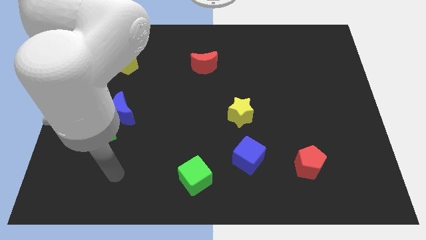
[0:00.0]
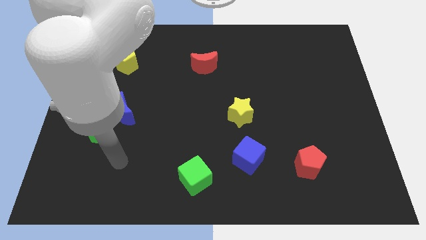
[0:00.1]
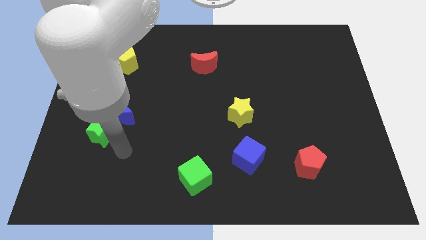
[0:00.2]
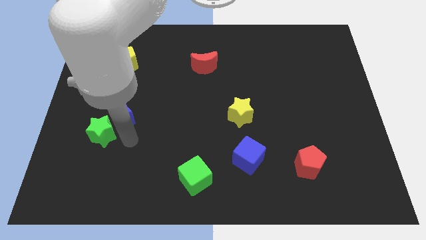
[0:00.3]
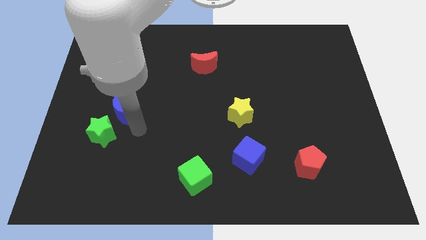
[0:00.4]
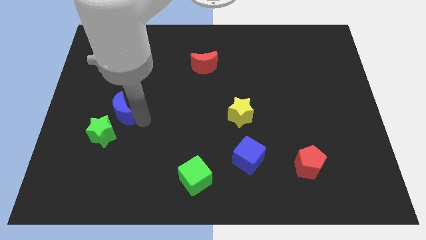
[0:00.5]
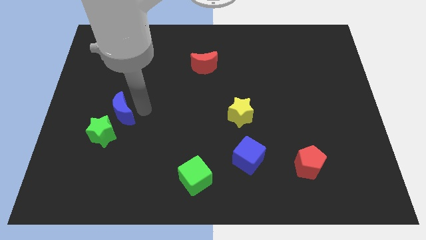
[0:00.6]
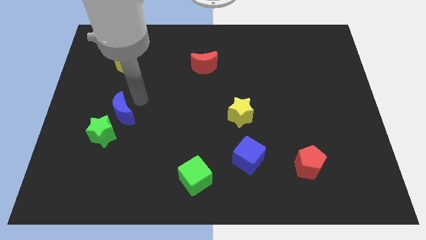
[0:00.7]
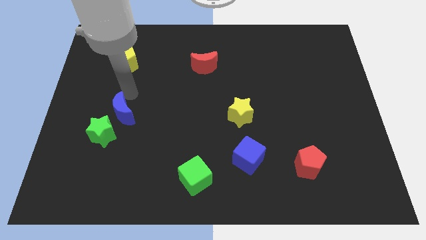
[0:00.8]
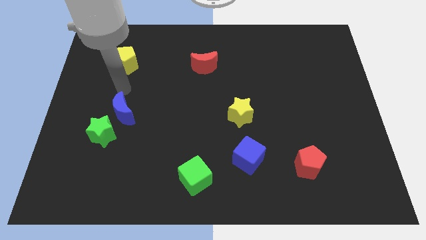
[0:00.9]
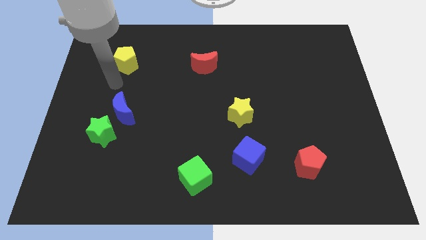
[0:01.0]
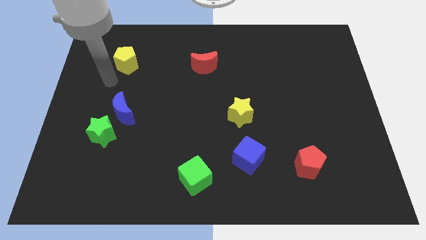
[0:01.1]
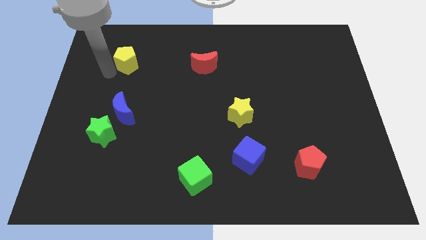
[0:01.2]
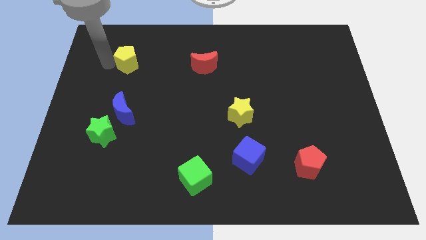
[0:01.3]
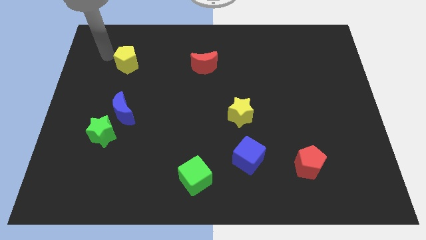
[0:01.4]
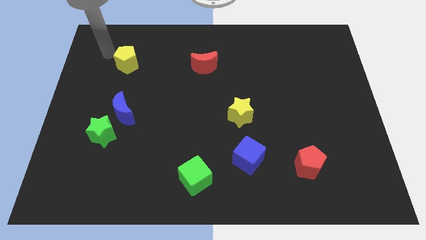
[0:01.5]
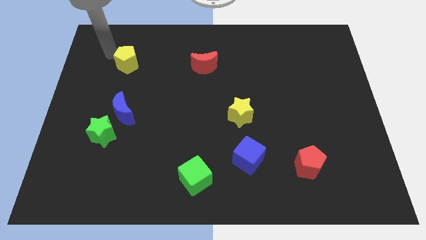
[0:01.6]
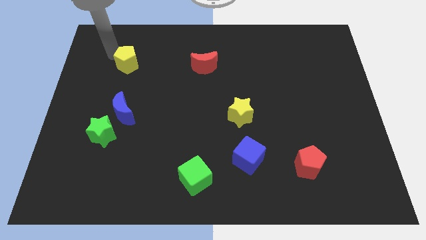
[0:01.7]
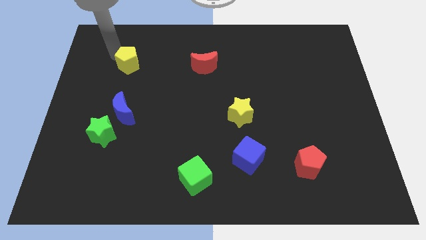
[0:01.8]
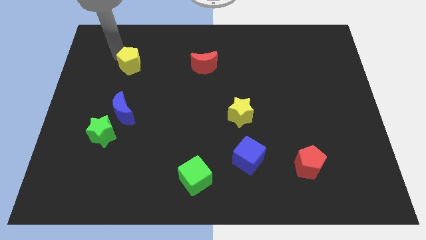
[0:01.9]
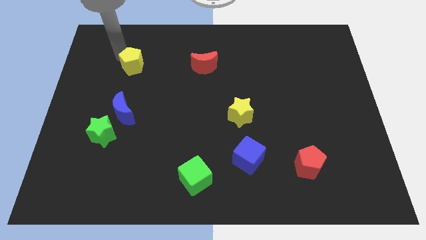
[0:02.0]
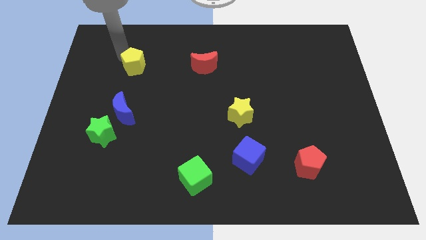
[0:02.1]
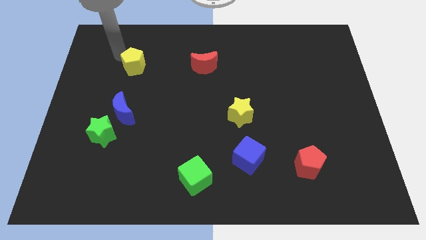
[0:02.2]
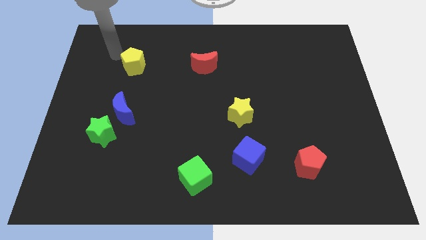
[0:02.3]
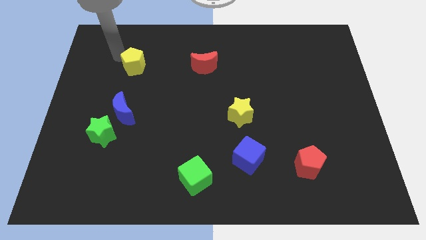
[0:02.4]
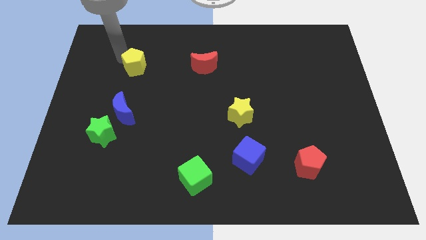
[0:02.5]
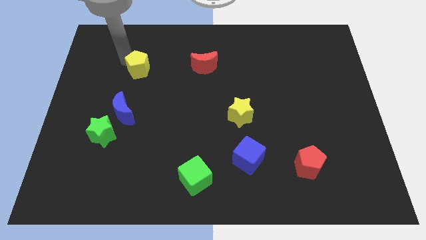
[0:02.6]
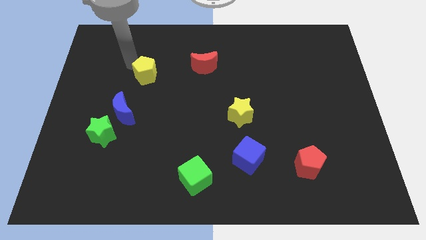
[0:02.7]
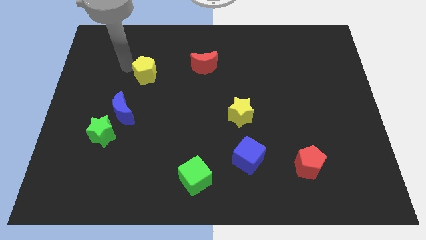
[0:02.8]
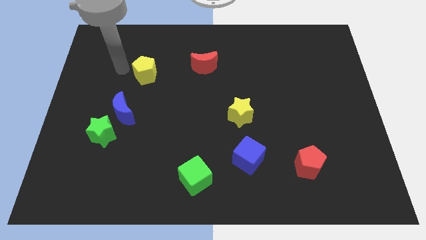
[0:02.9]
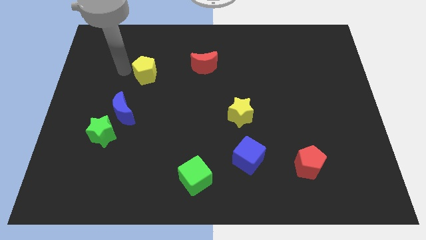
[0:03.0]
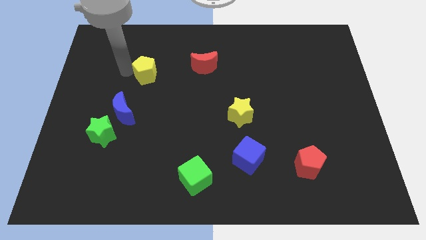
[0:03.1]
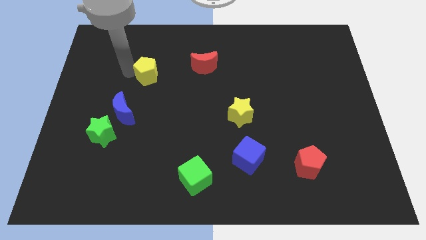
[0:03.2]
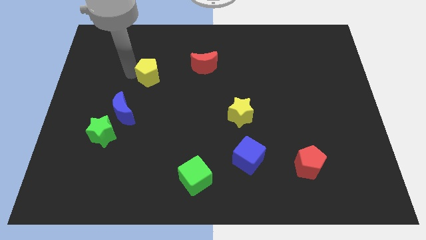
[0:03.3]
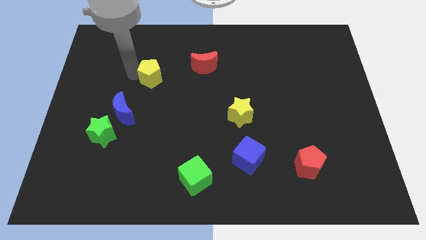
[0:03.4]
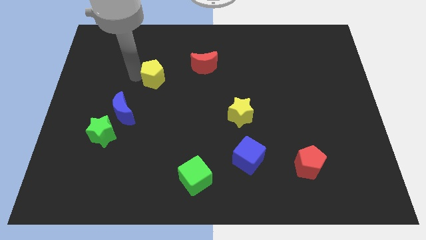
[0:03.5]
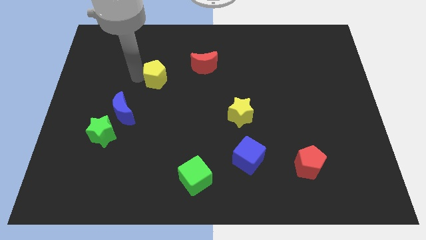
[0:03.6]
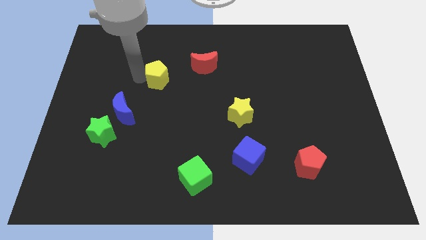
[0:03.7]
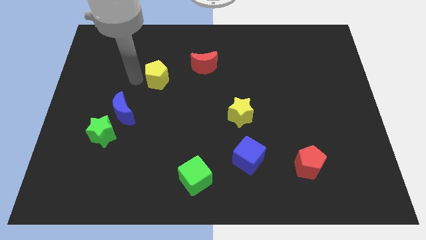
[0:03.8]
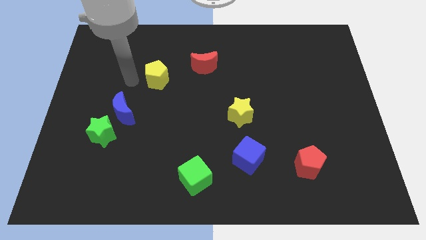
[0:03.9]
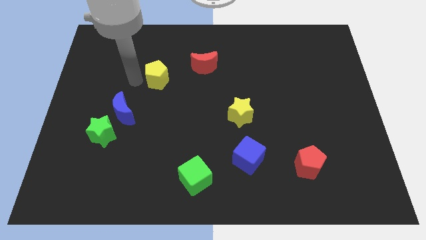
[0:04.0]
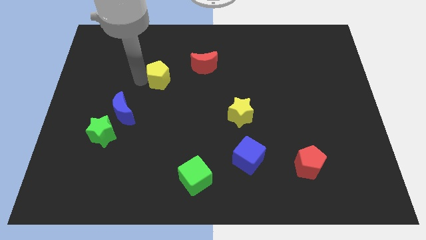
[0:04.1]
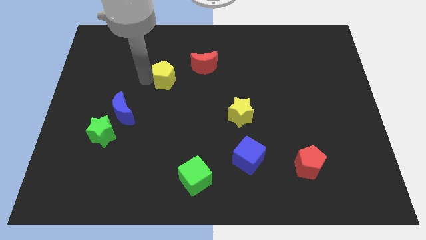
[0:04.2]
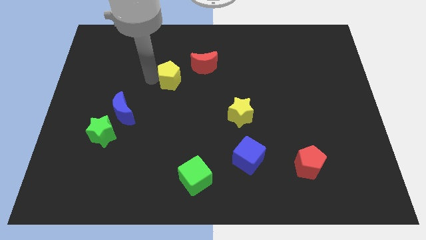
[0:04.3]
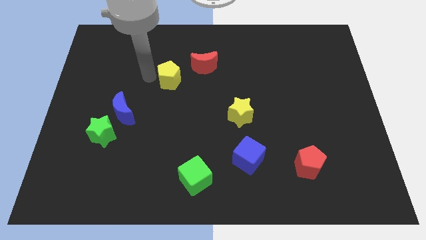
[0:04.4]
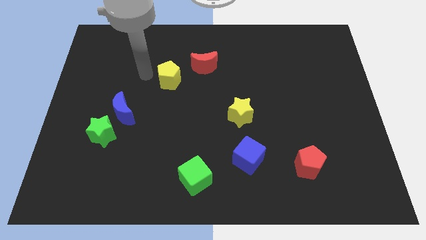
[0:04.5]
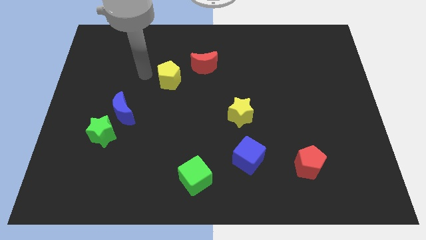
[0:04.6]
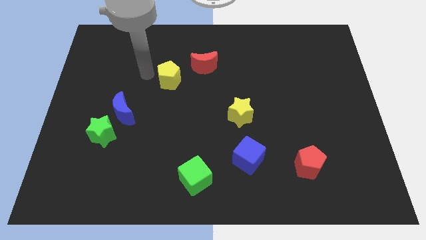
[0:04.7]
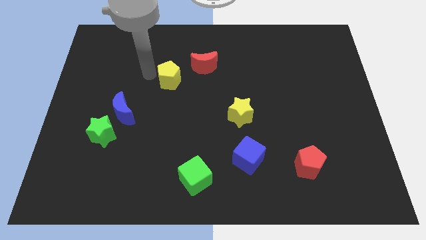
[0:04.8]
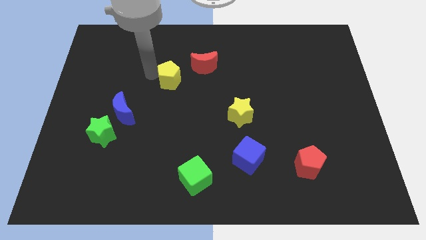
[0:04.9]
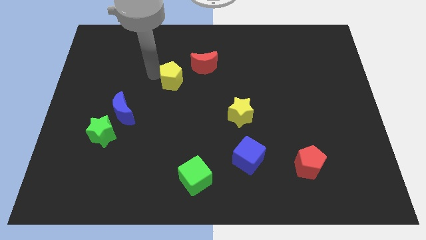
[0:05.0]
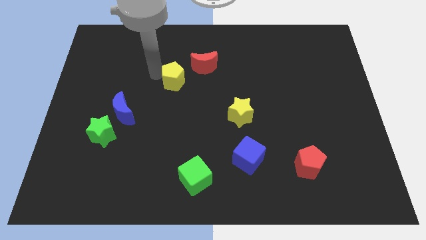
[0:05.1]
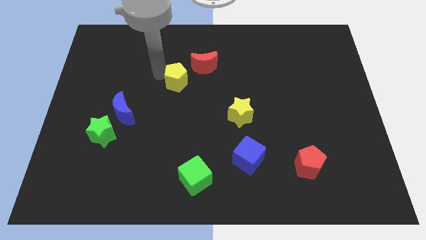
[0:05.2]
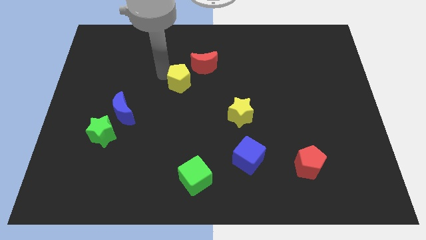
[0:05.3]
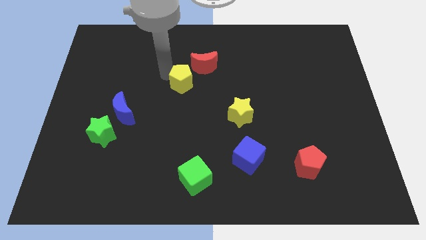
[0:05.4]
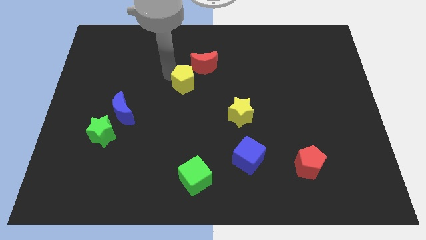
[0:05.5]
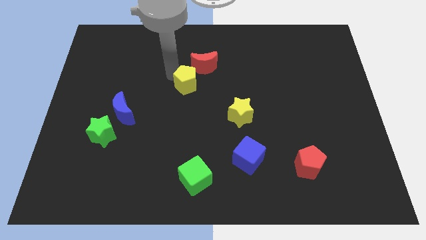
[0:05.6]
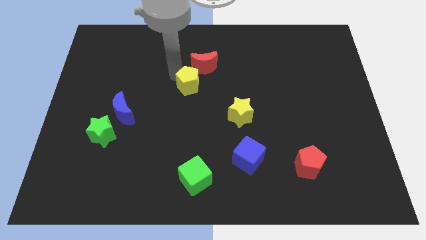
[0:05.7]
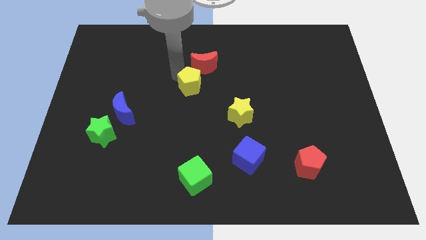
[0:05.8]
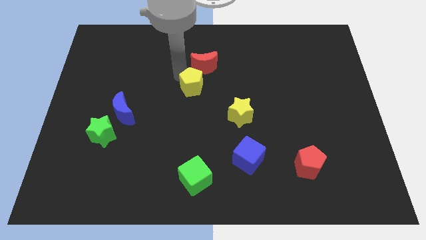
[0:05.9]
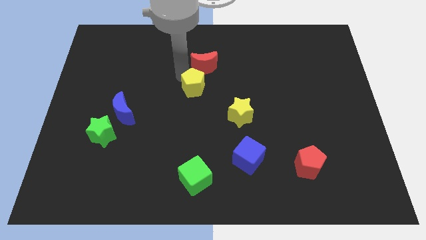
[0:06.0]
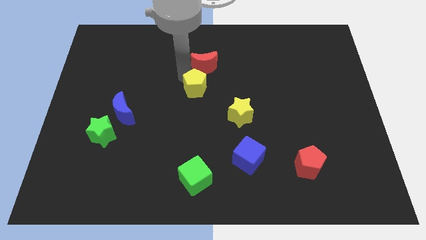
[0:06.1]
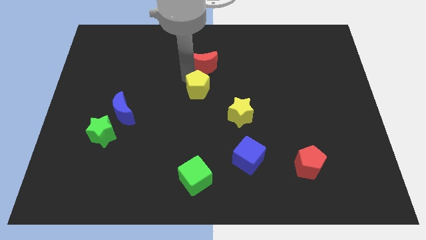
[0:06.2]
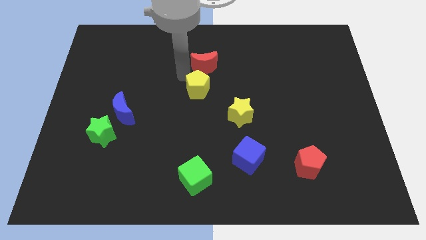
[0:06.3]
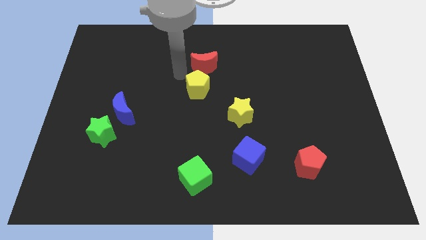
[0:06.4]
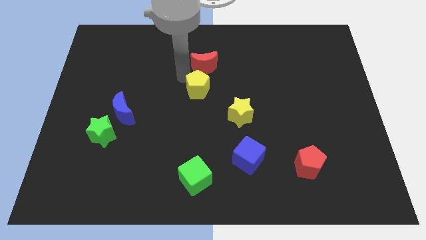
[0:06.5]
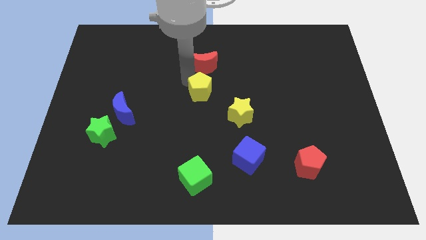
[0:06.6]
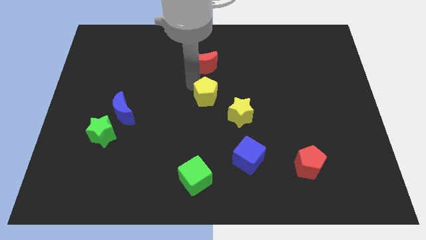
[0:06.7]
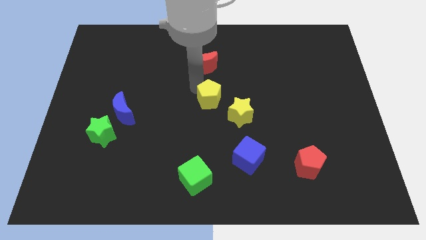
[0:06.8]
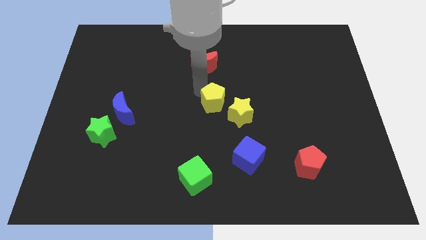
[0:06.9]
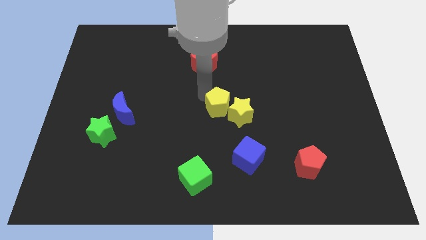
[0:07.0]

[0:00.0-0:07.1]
slide the yellow pentagon next to the yellow star
